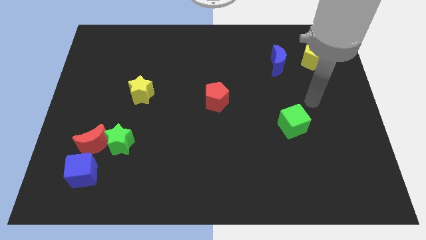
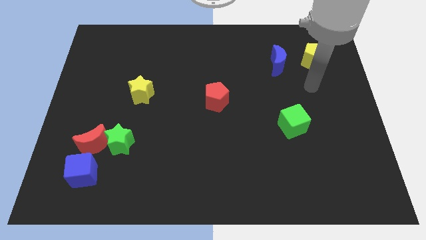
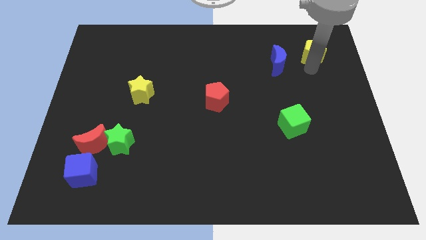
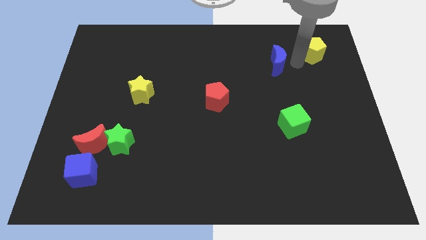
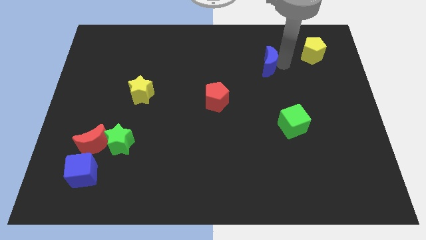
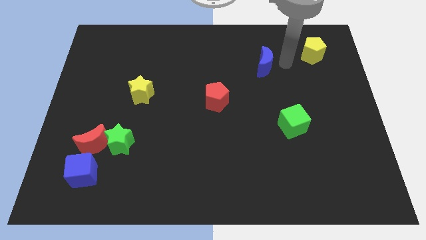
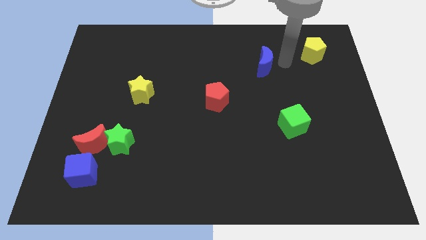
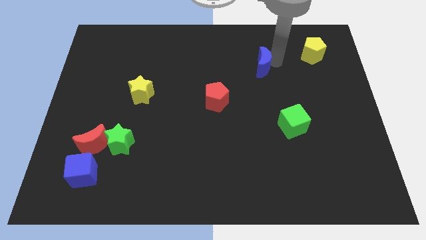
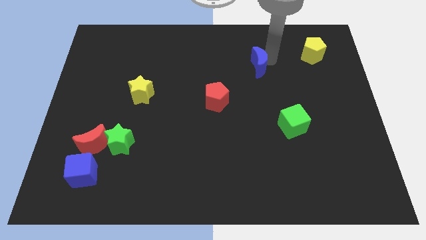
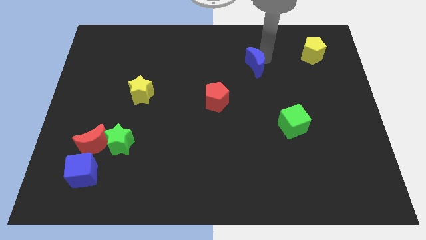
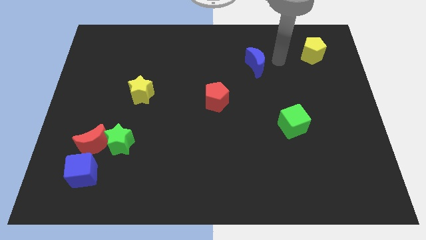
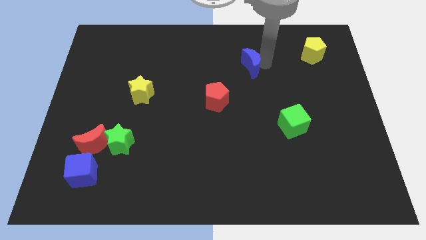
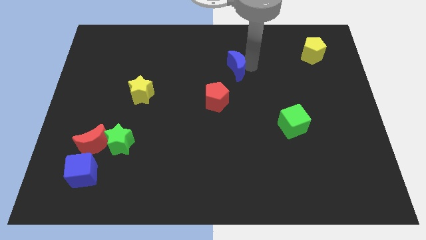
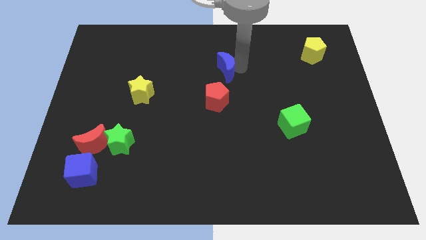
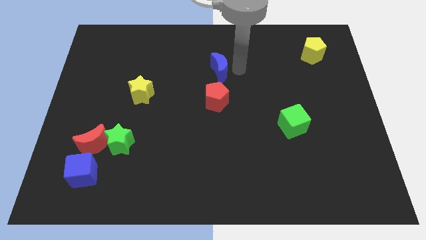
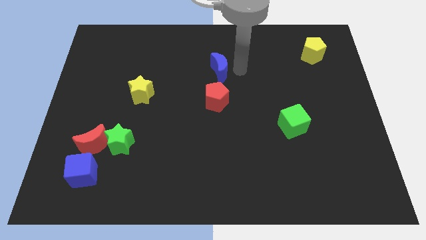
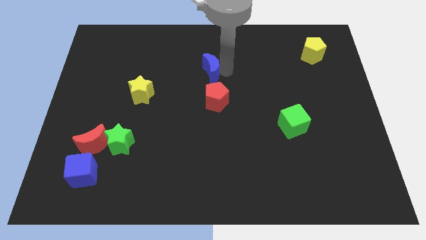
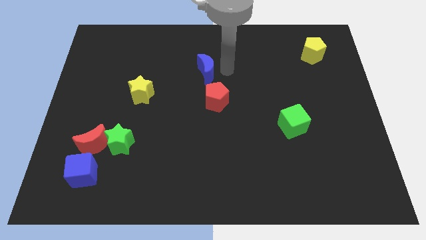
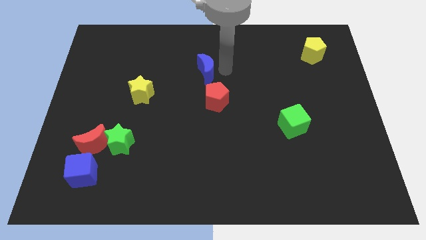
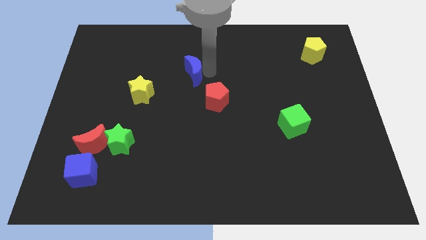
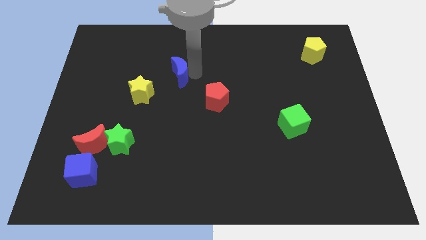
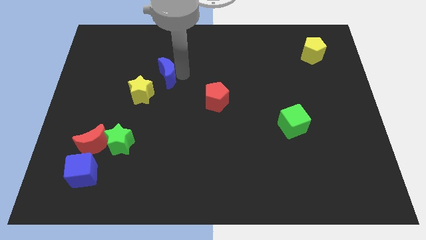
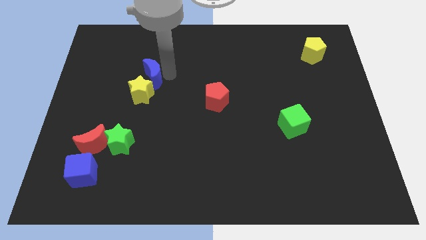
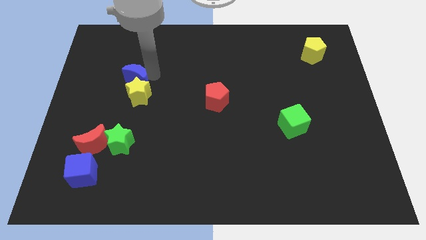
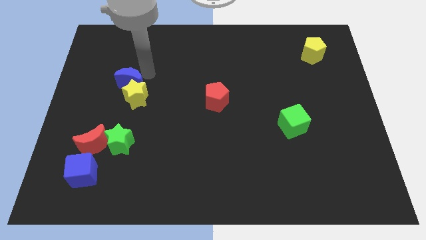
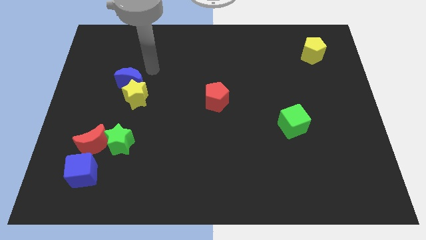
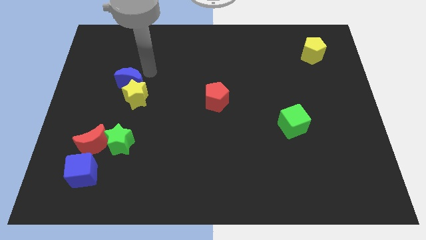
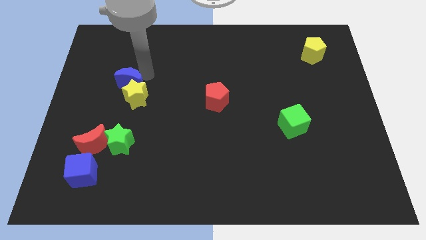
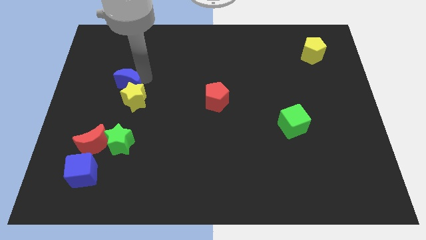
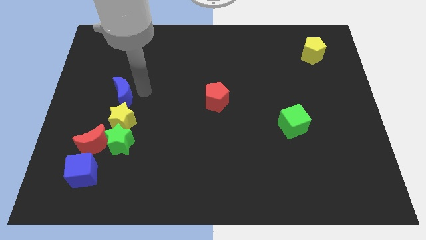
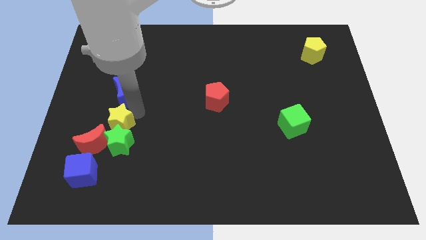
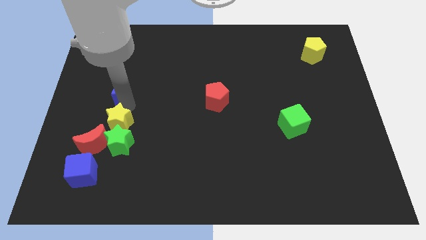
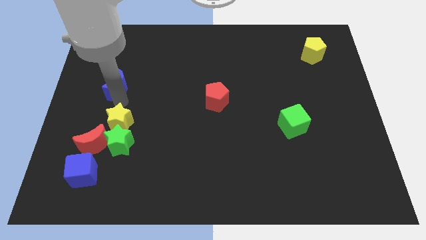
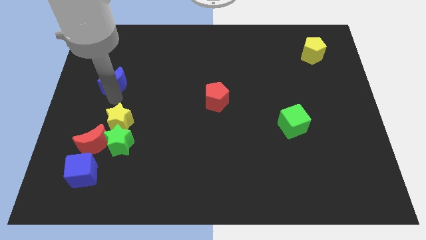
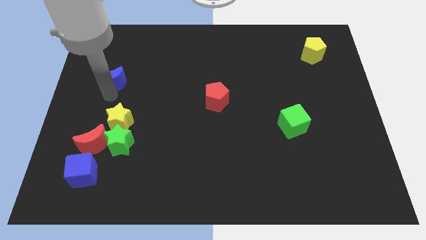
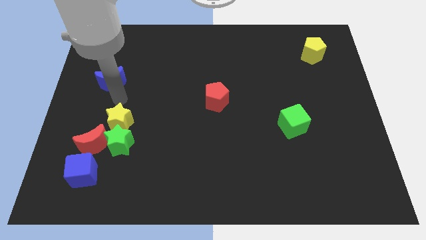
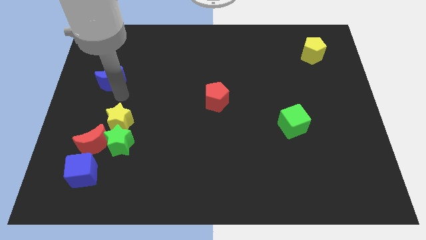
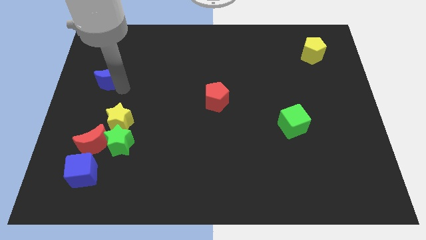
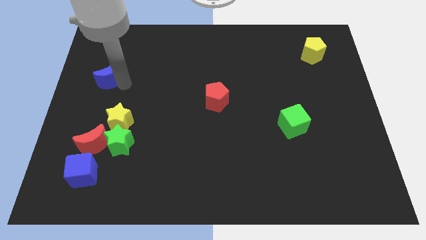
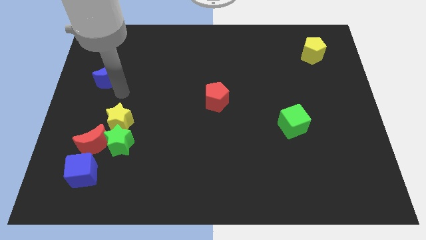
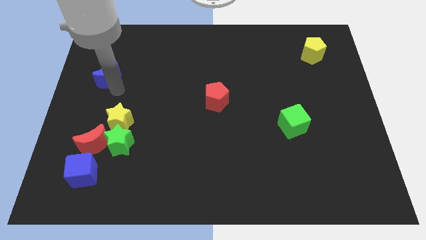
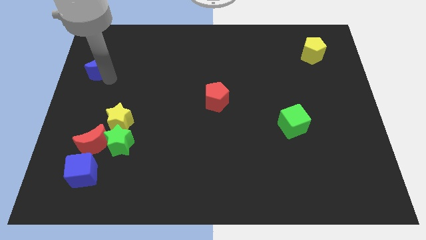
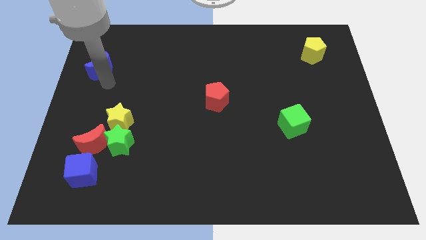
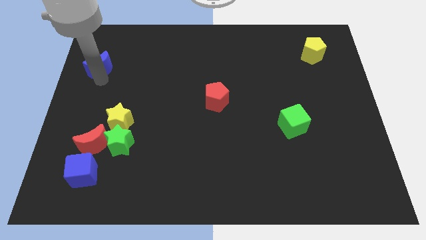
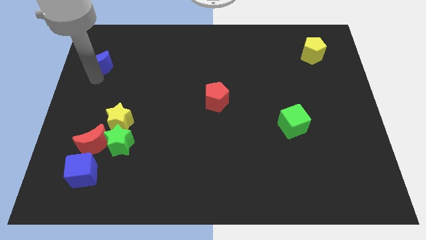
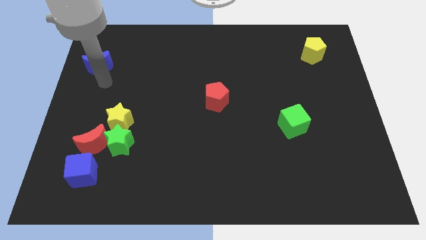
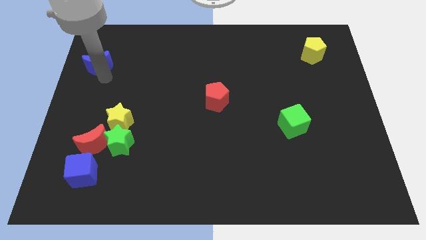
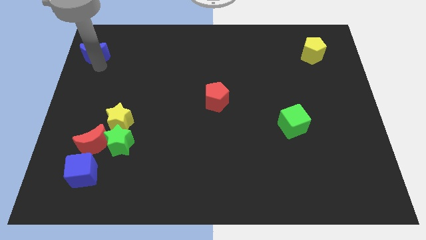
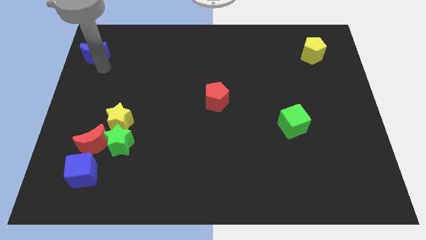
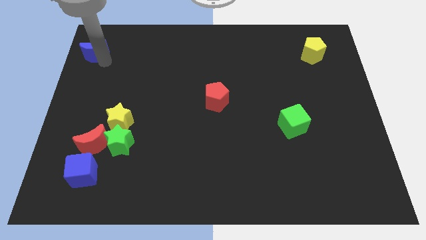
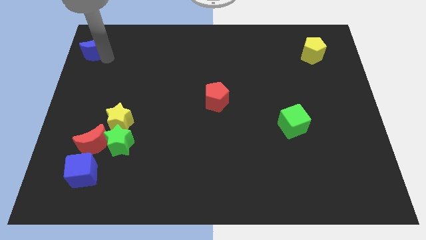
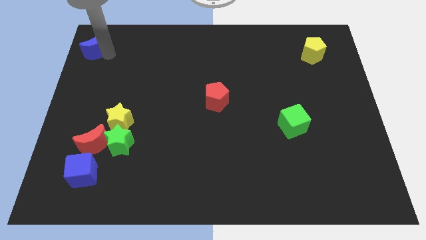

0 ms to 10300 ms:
push the blue moon to the upper left corner

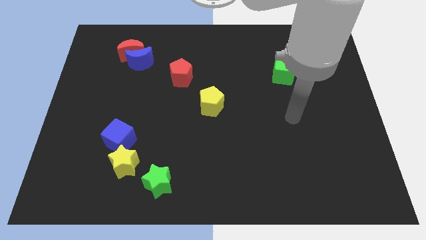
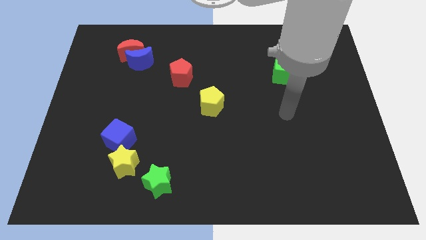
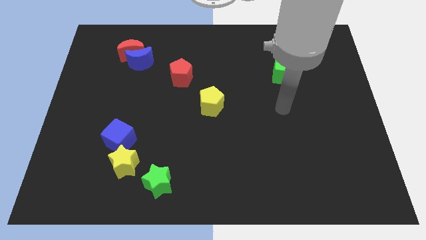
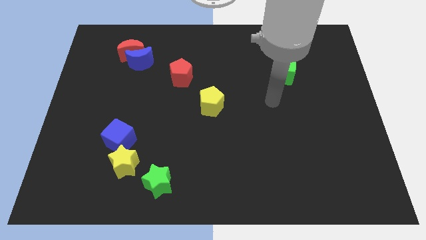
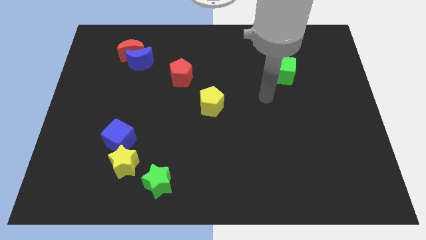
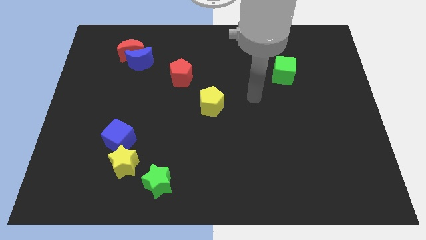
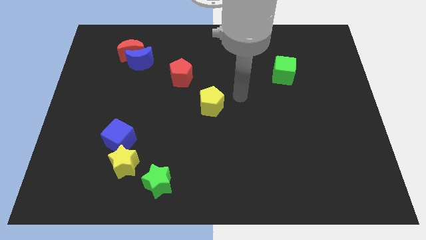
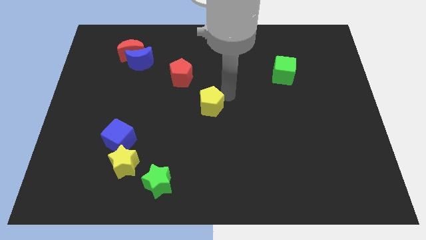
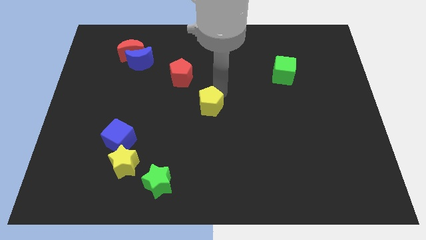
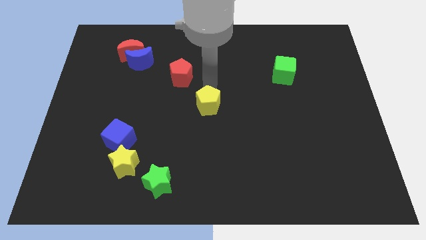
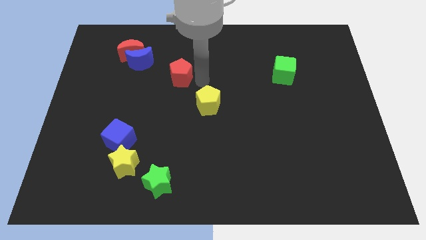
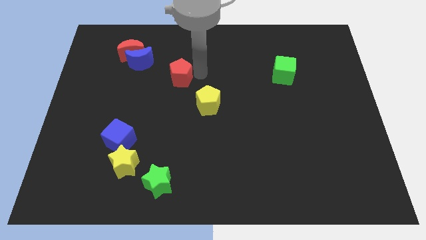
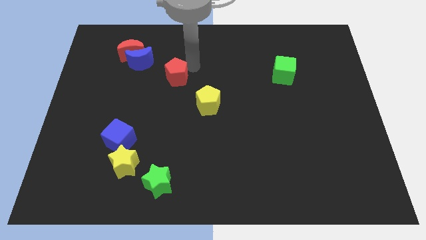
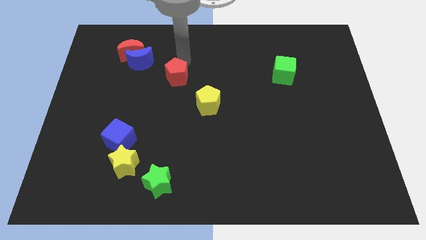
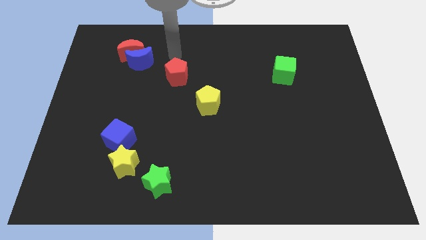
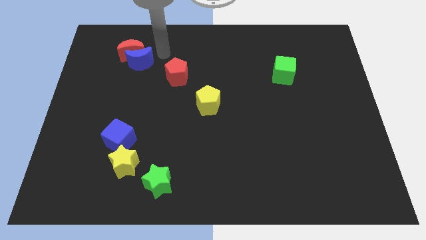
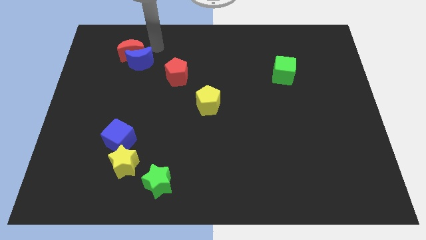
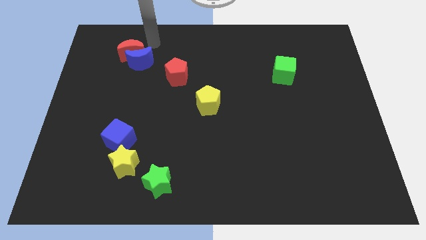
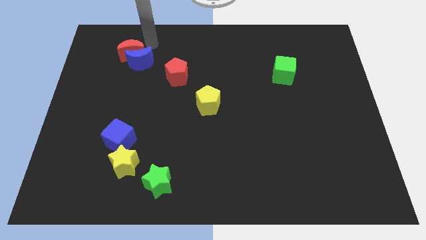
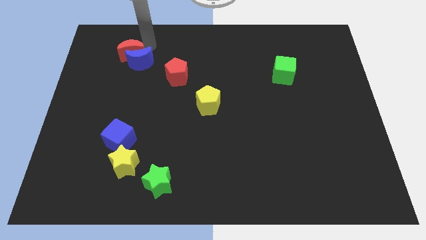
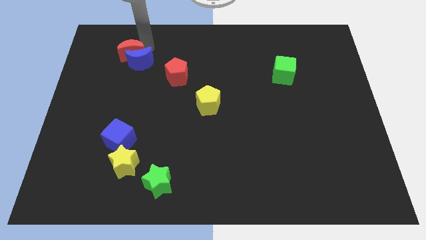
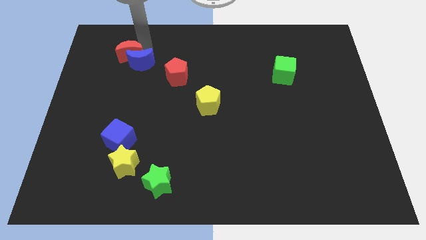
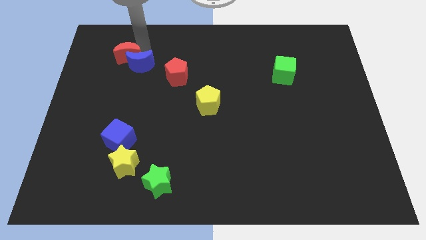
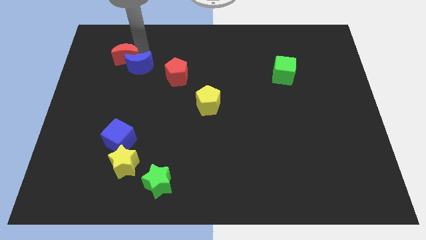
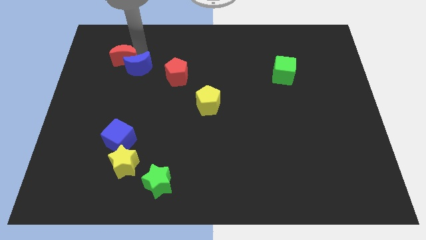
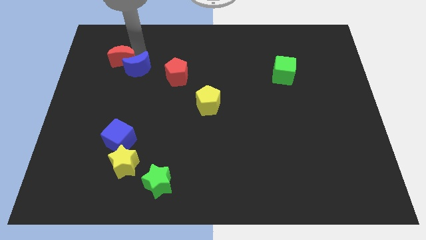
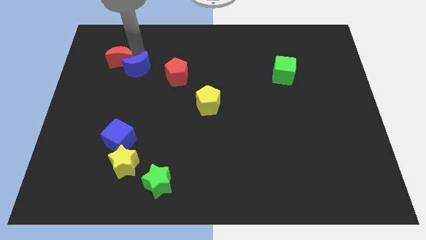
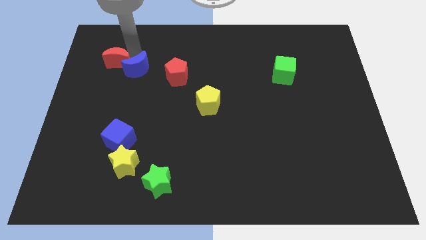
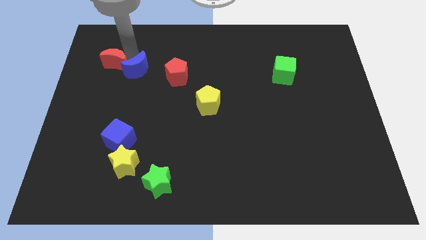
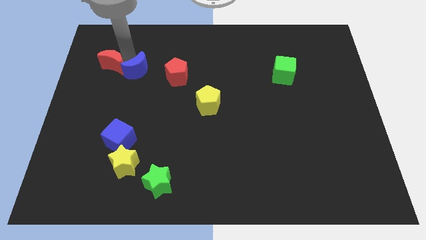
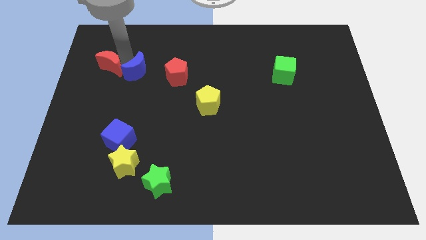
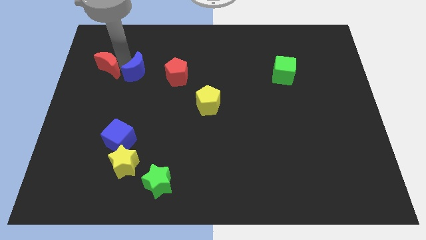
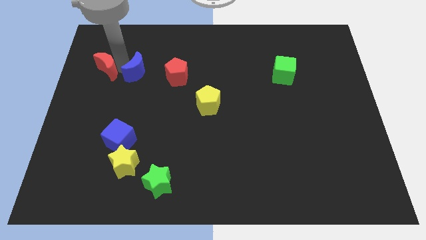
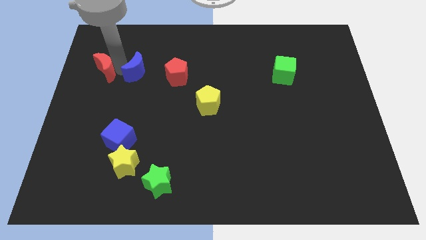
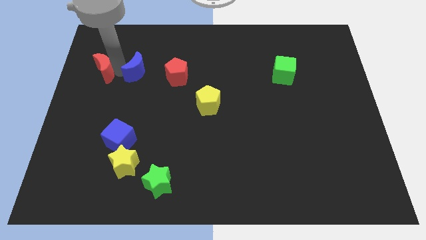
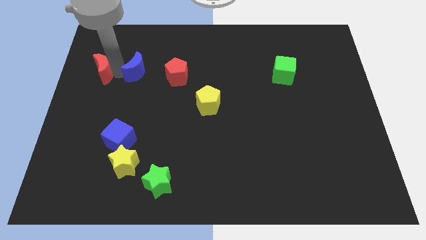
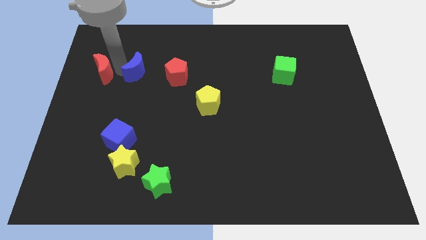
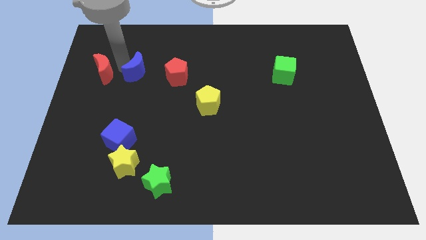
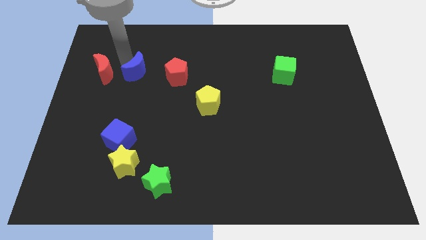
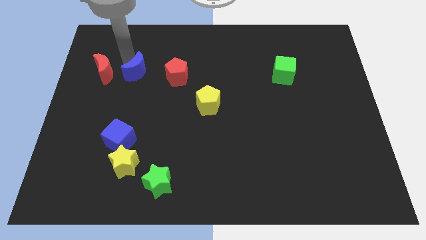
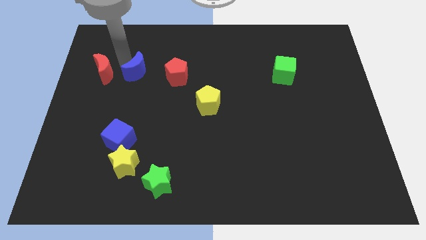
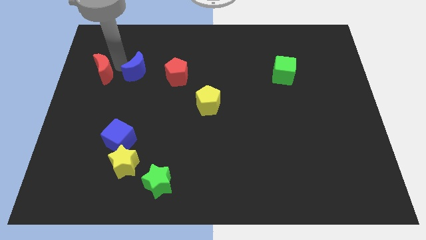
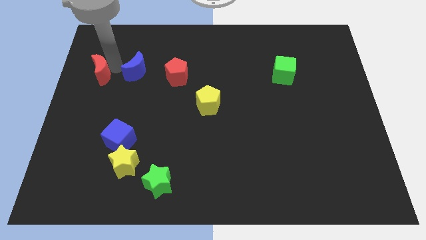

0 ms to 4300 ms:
push the red moon to the left side of the board
